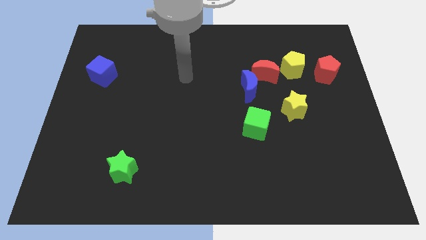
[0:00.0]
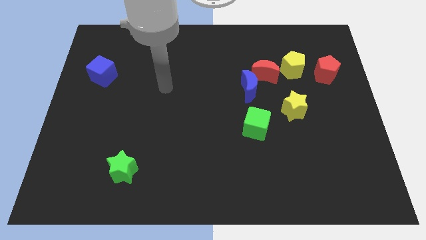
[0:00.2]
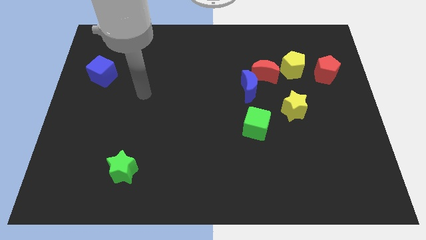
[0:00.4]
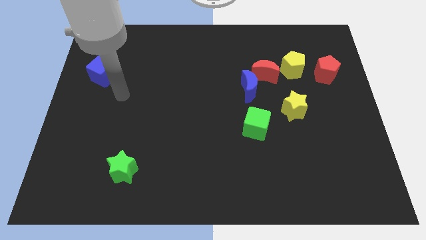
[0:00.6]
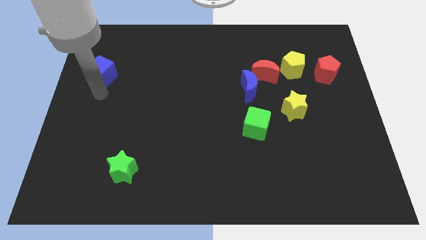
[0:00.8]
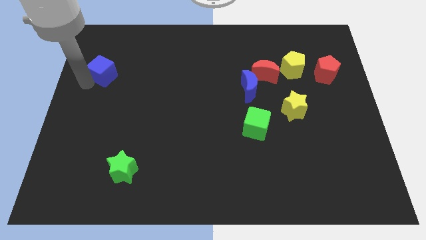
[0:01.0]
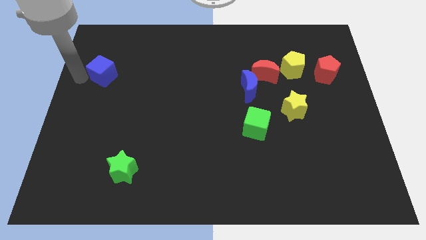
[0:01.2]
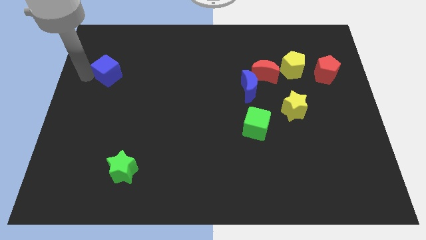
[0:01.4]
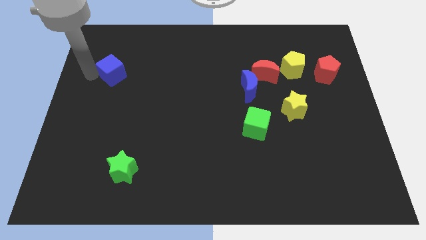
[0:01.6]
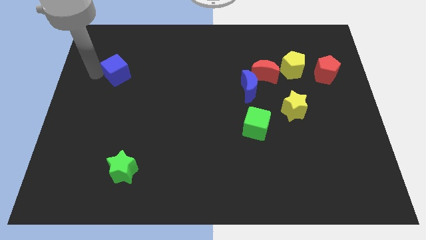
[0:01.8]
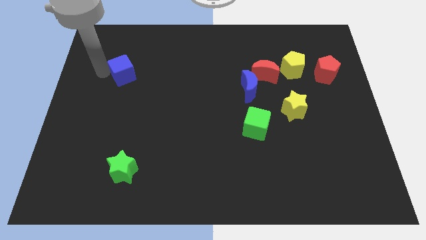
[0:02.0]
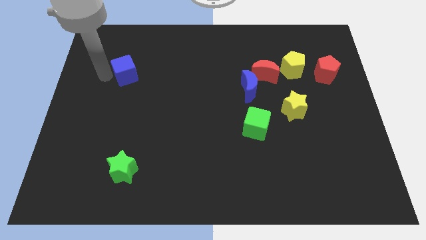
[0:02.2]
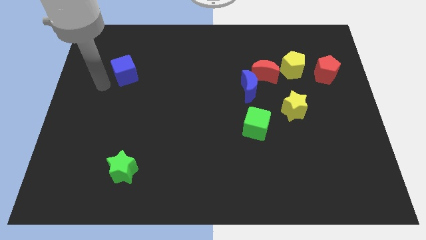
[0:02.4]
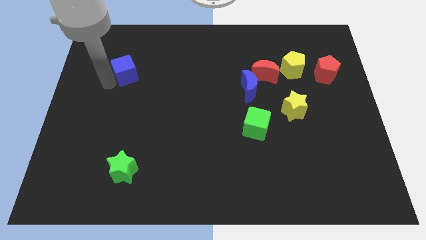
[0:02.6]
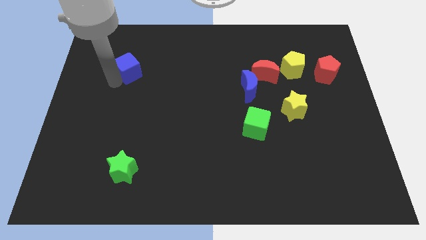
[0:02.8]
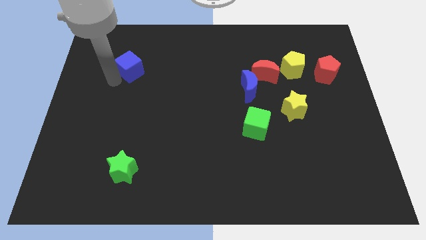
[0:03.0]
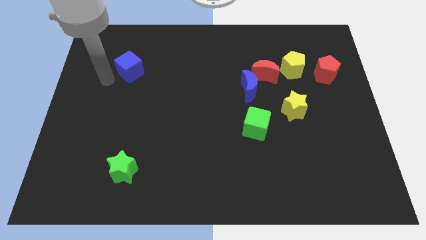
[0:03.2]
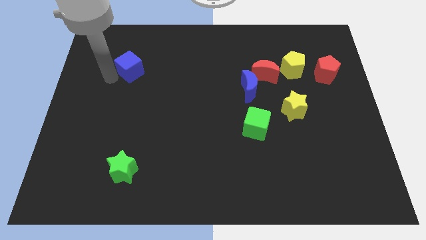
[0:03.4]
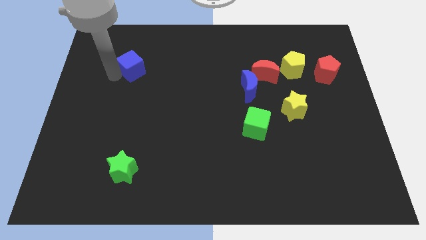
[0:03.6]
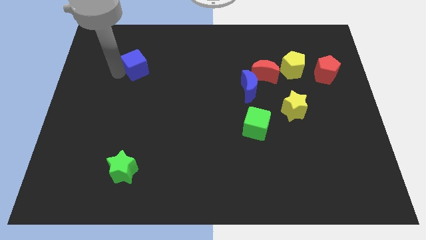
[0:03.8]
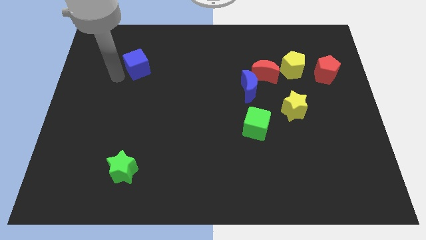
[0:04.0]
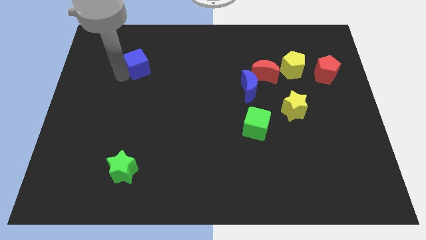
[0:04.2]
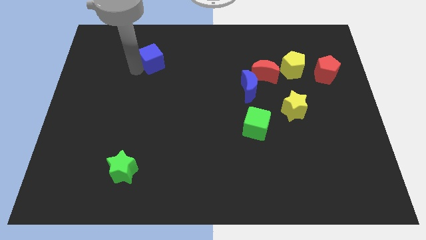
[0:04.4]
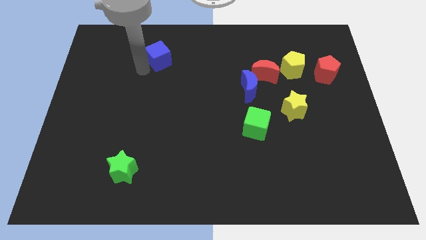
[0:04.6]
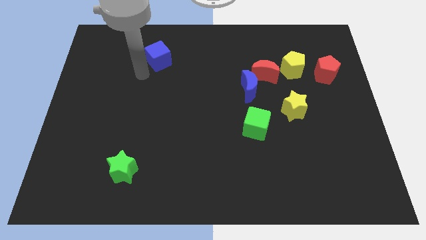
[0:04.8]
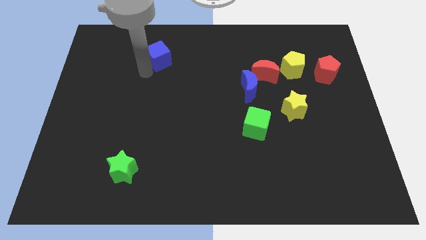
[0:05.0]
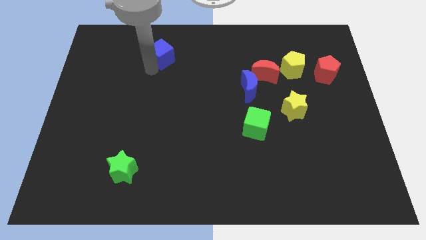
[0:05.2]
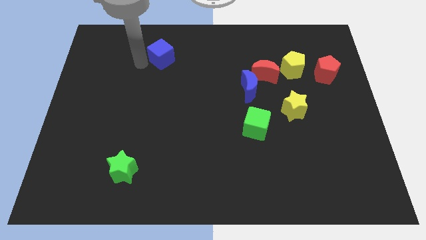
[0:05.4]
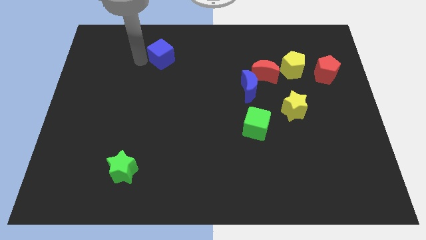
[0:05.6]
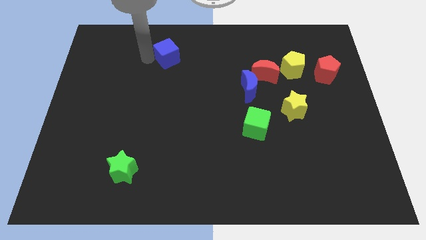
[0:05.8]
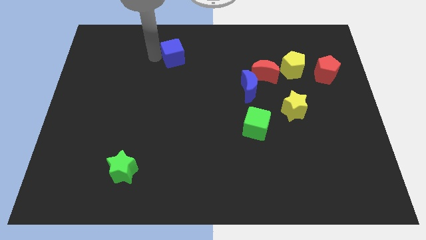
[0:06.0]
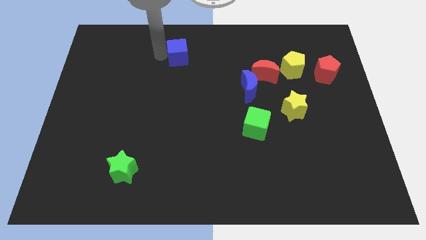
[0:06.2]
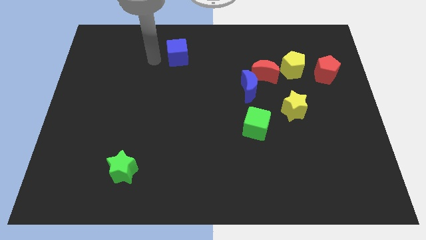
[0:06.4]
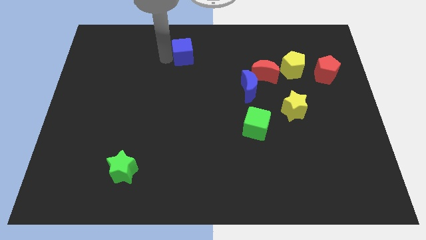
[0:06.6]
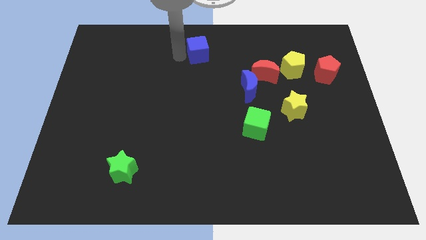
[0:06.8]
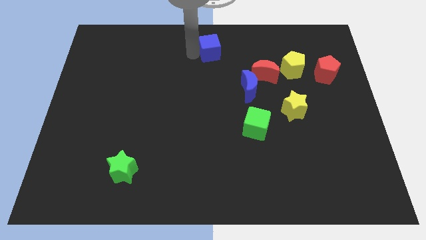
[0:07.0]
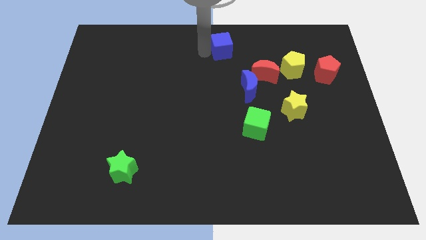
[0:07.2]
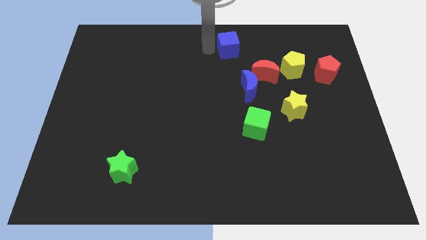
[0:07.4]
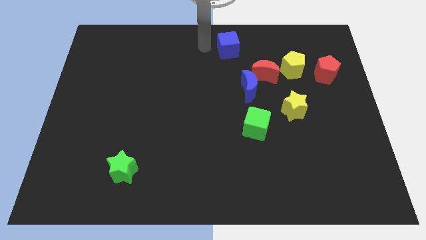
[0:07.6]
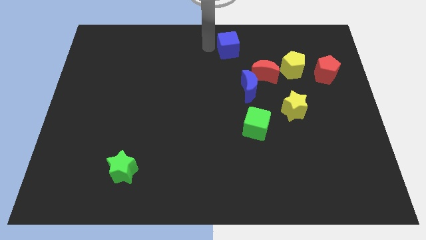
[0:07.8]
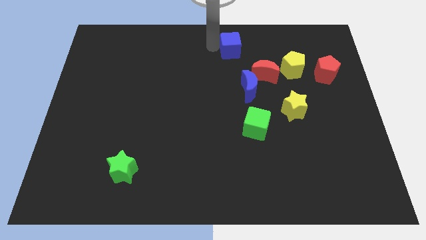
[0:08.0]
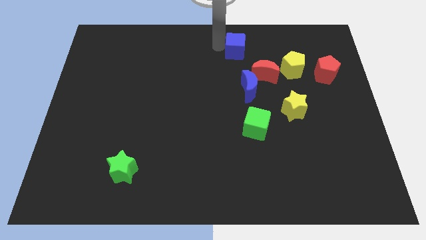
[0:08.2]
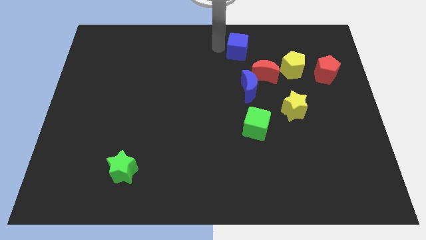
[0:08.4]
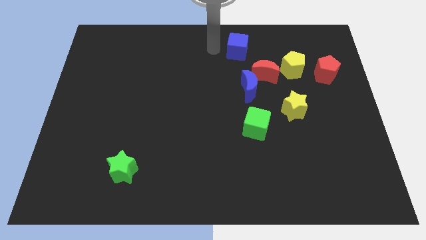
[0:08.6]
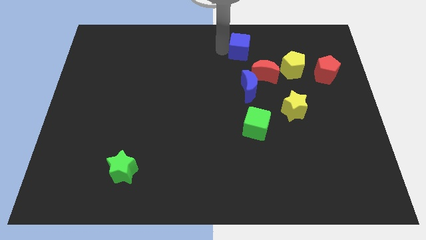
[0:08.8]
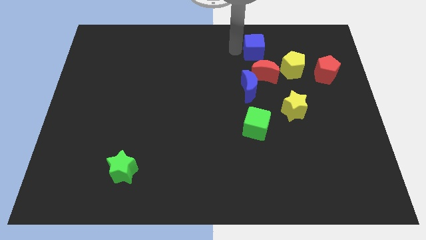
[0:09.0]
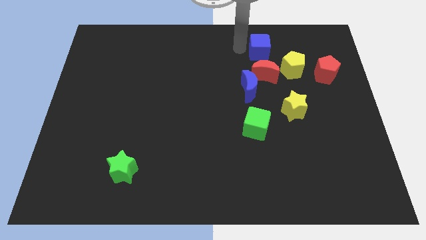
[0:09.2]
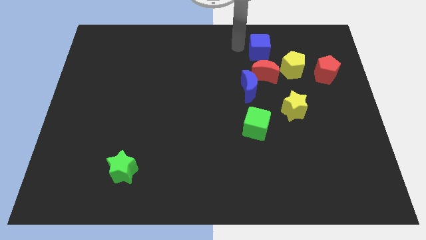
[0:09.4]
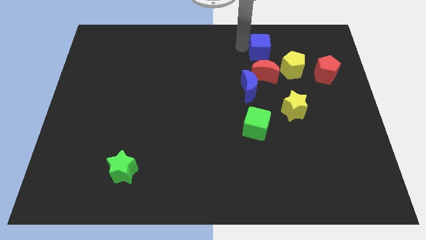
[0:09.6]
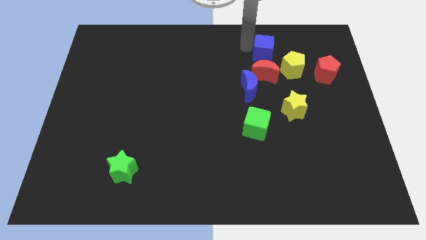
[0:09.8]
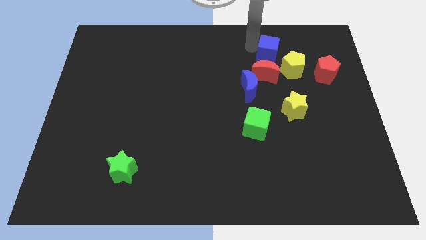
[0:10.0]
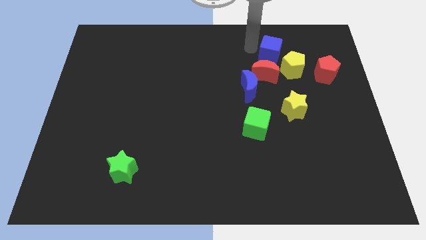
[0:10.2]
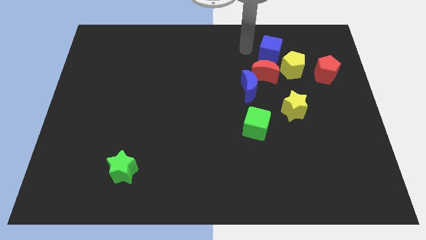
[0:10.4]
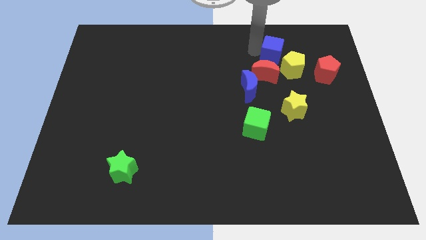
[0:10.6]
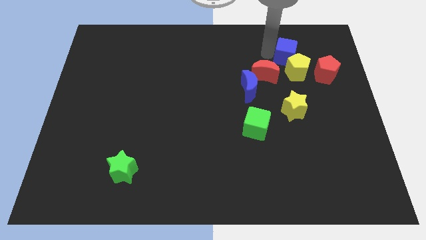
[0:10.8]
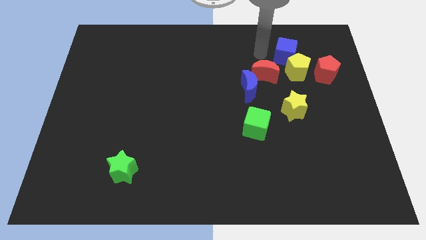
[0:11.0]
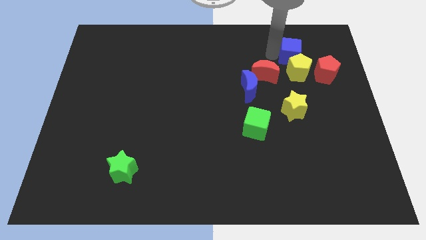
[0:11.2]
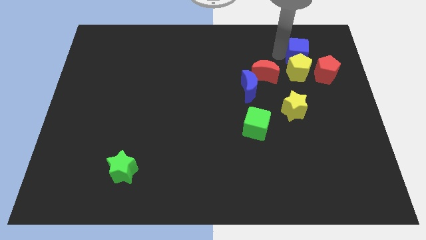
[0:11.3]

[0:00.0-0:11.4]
slide the blue cube diagonally up and to the right of the yellow pentagon

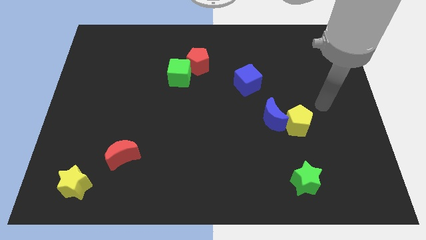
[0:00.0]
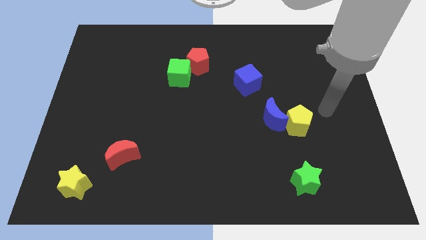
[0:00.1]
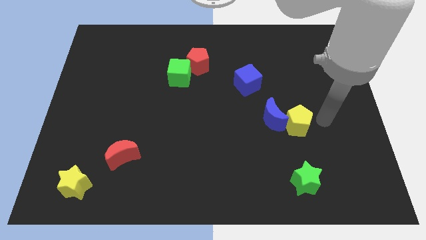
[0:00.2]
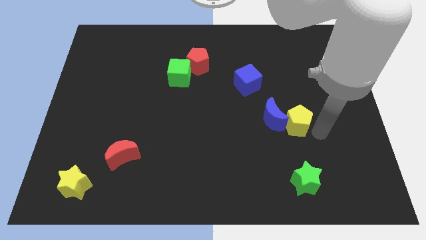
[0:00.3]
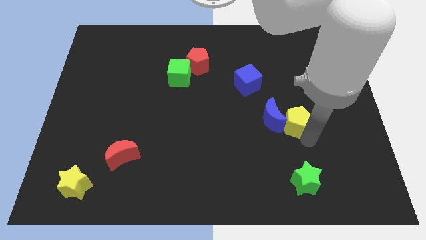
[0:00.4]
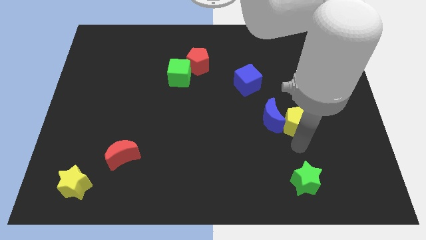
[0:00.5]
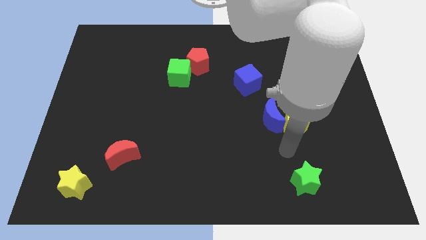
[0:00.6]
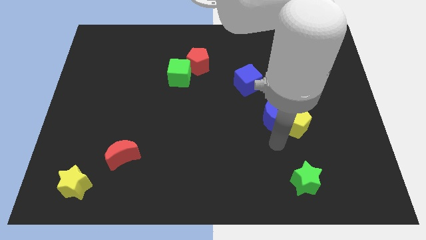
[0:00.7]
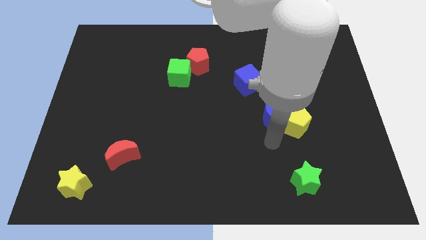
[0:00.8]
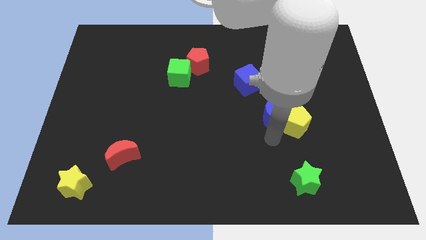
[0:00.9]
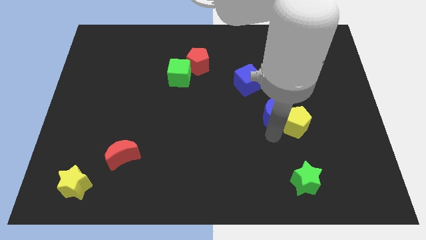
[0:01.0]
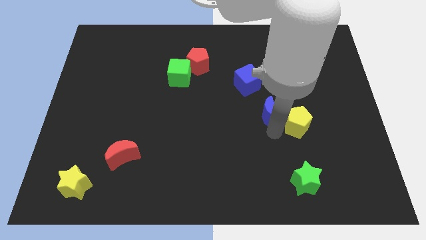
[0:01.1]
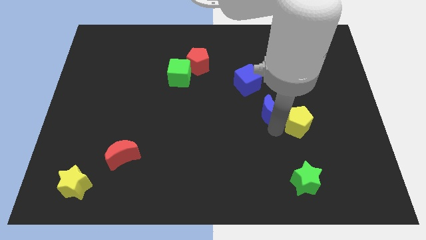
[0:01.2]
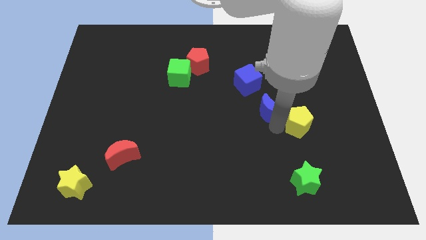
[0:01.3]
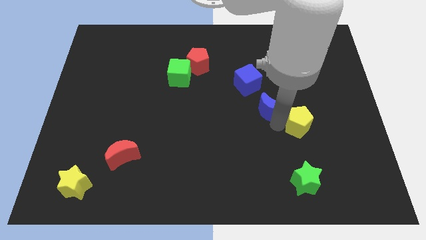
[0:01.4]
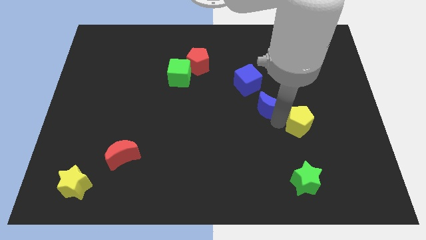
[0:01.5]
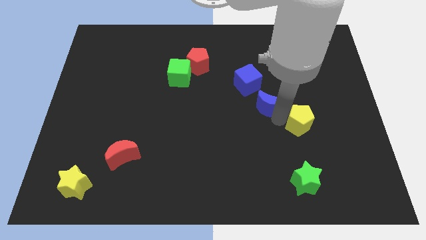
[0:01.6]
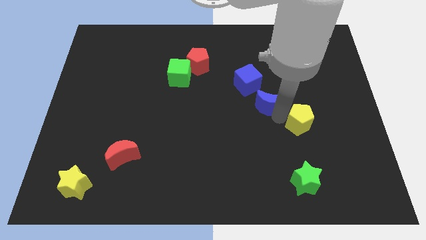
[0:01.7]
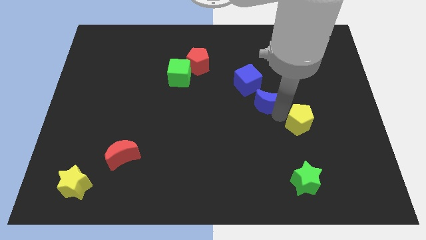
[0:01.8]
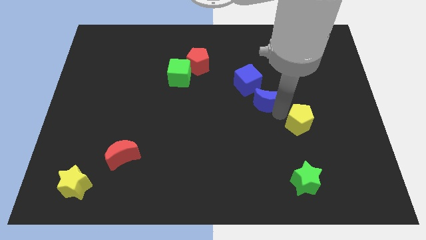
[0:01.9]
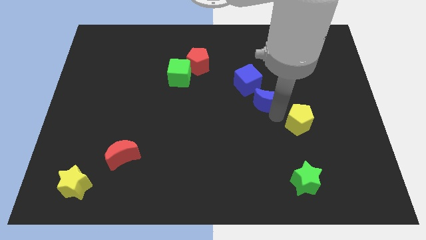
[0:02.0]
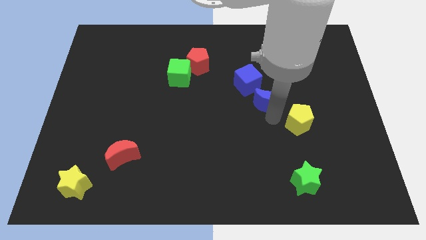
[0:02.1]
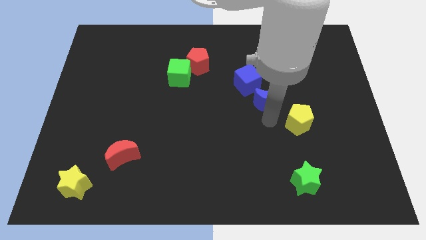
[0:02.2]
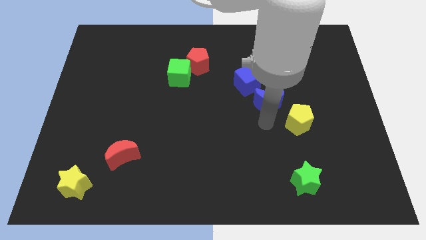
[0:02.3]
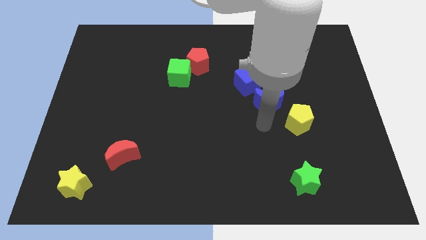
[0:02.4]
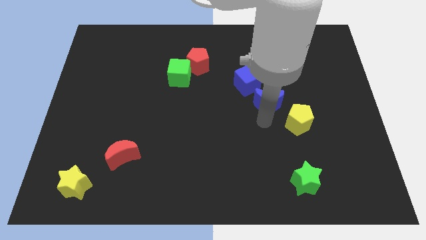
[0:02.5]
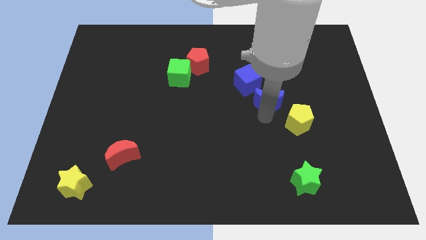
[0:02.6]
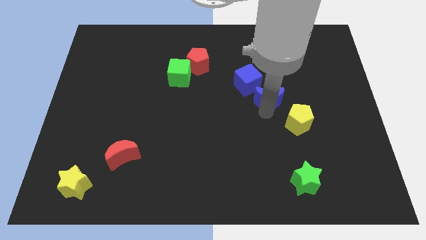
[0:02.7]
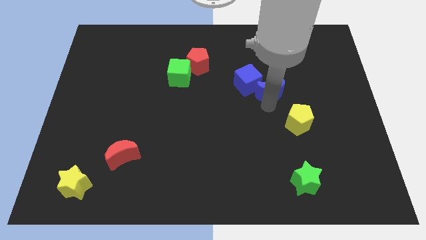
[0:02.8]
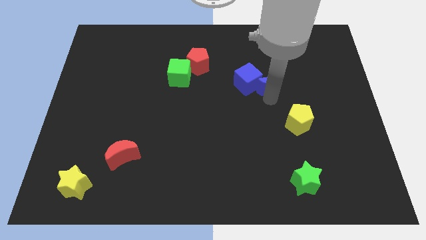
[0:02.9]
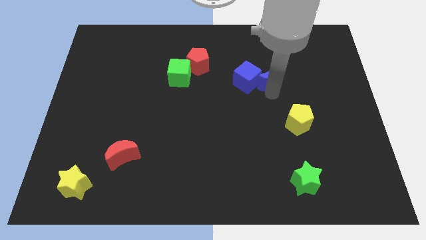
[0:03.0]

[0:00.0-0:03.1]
push the blue moon diagonally up and to the right of the blue cube
